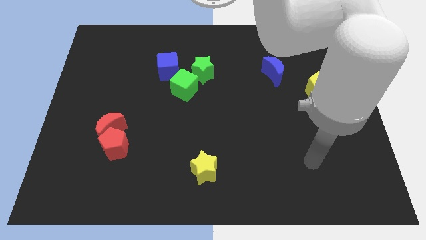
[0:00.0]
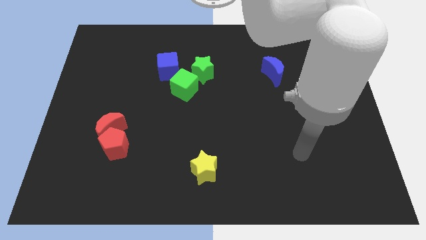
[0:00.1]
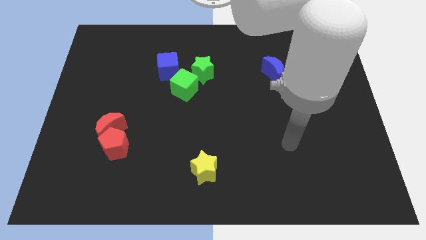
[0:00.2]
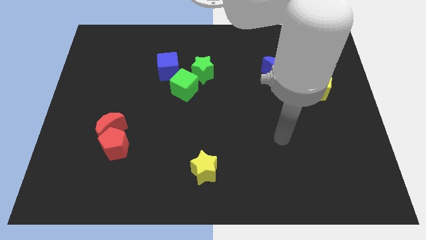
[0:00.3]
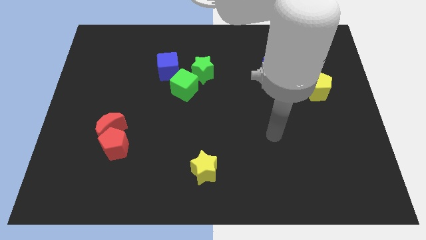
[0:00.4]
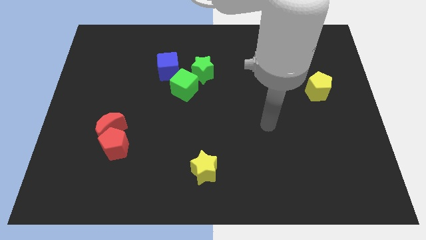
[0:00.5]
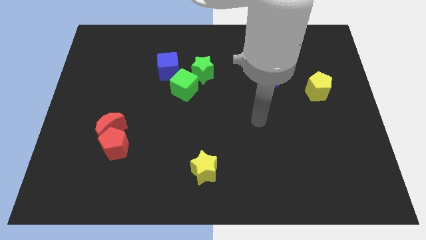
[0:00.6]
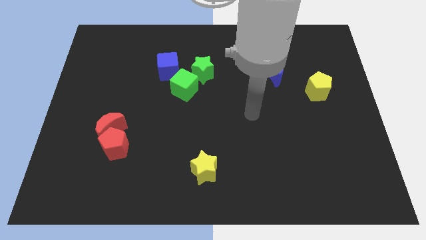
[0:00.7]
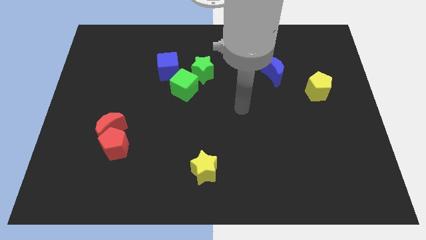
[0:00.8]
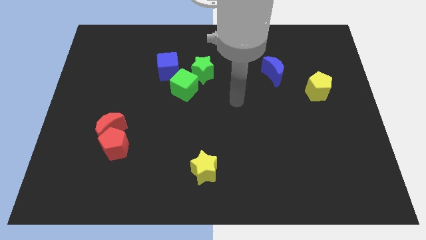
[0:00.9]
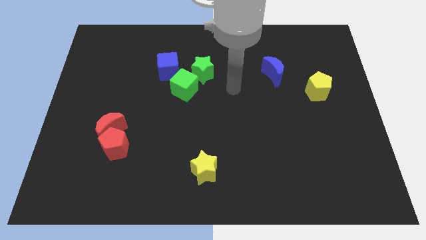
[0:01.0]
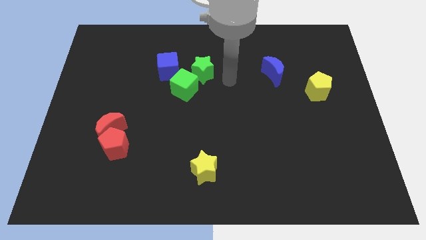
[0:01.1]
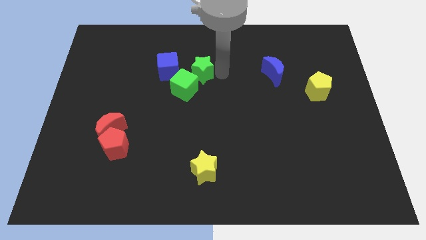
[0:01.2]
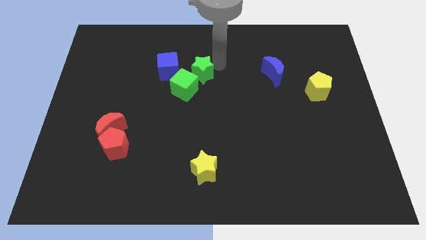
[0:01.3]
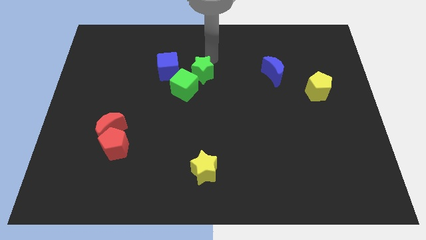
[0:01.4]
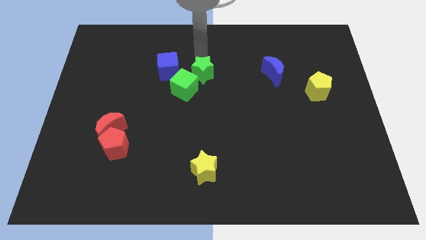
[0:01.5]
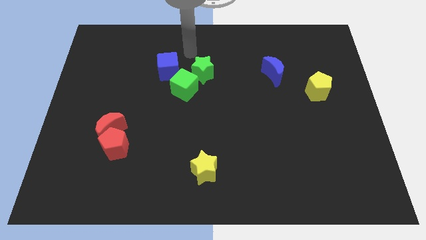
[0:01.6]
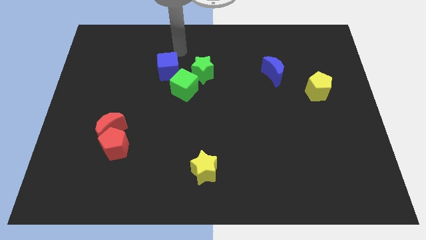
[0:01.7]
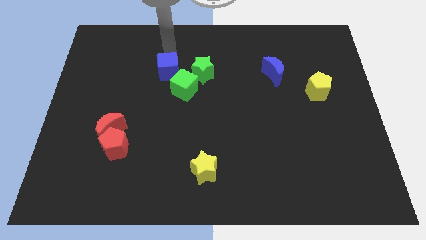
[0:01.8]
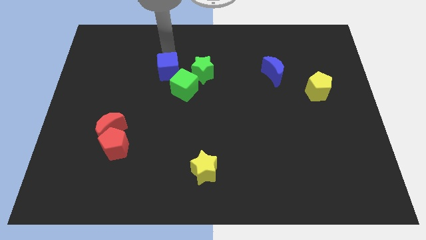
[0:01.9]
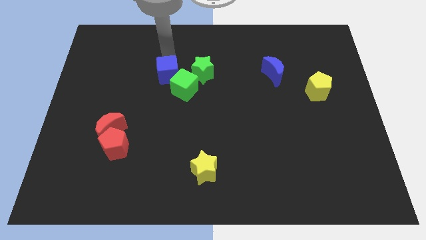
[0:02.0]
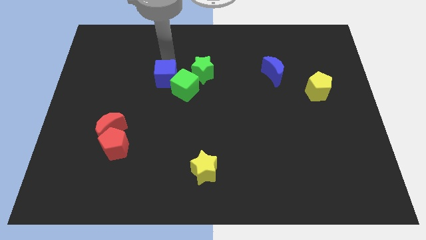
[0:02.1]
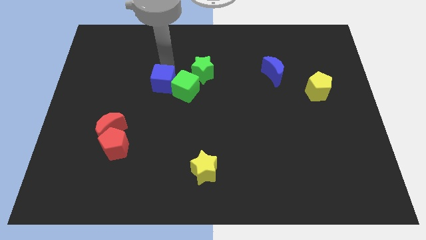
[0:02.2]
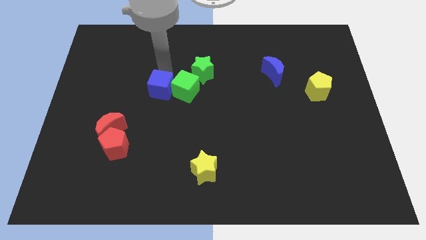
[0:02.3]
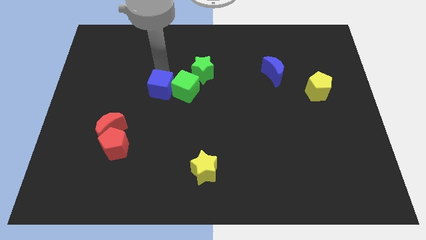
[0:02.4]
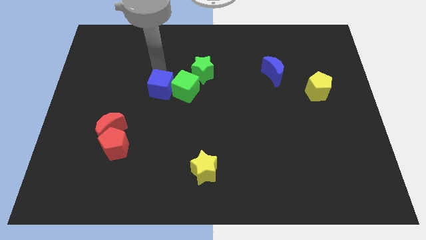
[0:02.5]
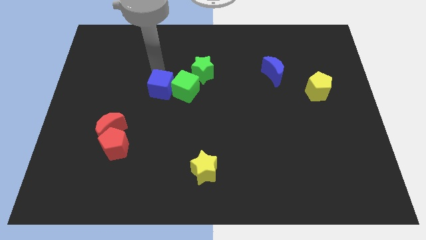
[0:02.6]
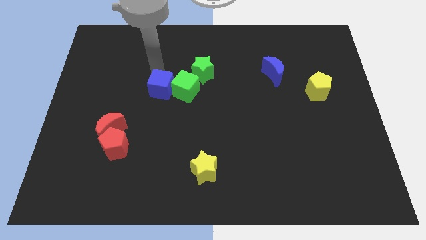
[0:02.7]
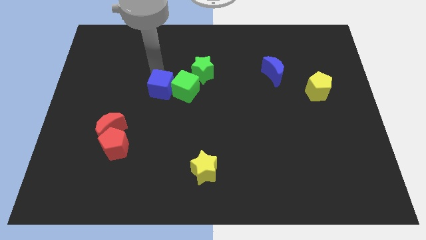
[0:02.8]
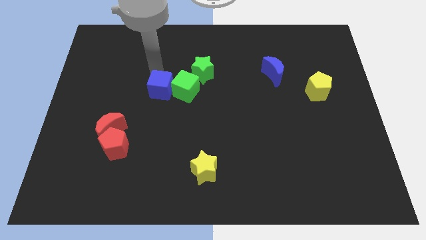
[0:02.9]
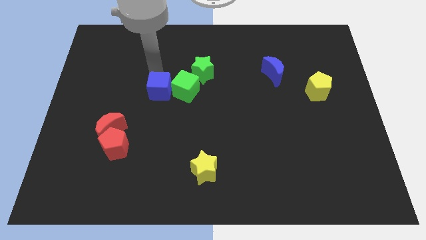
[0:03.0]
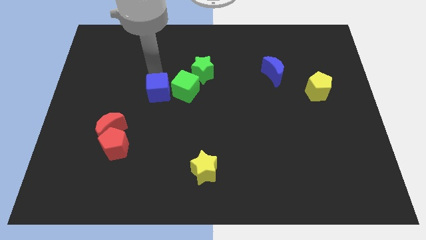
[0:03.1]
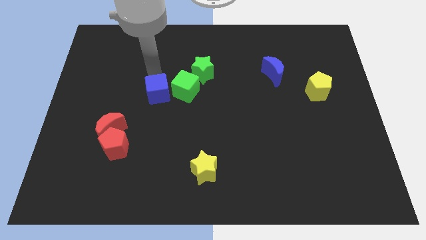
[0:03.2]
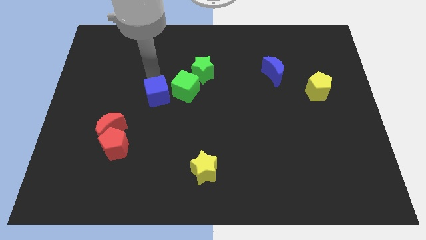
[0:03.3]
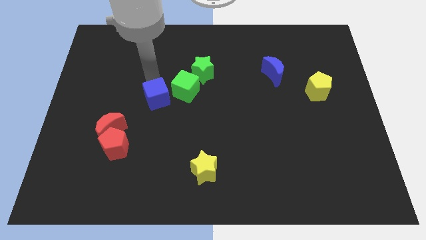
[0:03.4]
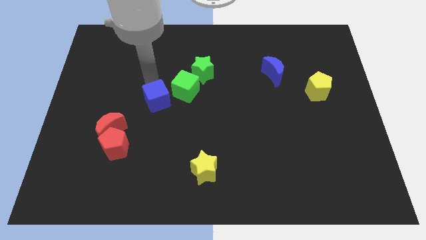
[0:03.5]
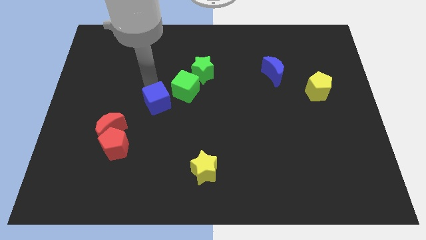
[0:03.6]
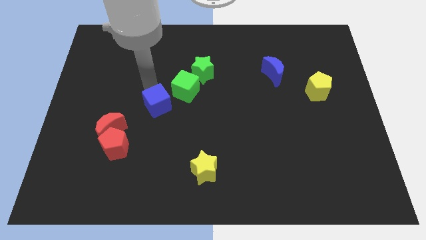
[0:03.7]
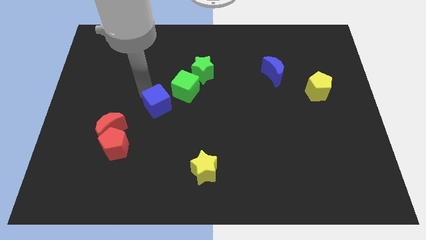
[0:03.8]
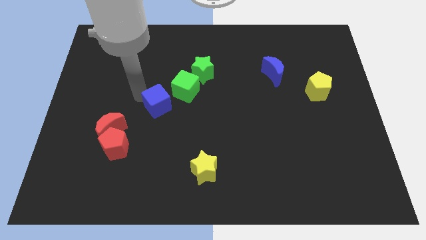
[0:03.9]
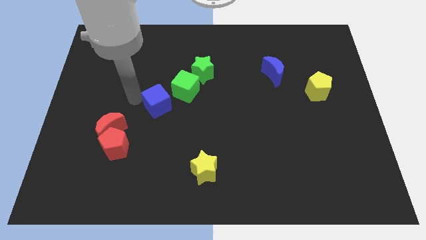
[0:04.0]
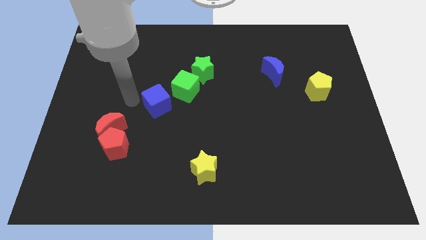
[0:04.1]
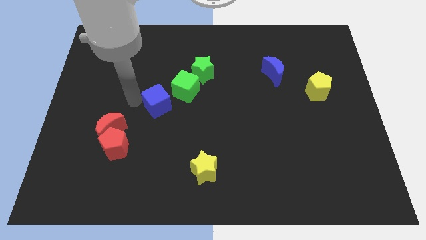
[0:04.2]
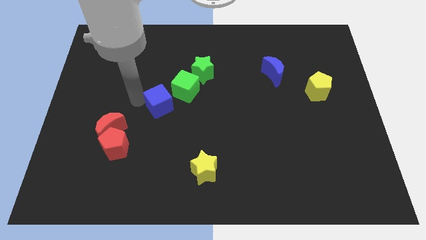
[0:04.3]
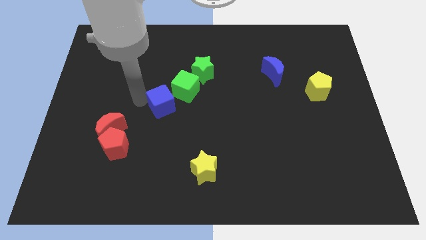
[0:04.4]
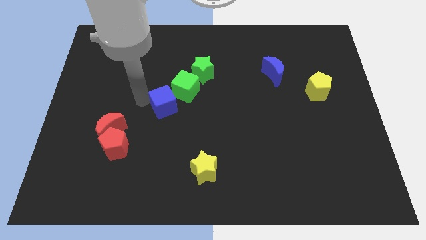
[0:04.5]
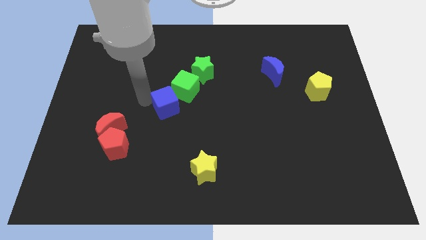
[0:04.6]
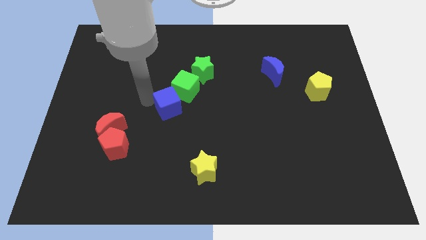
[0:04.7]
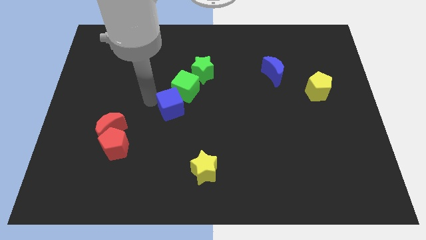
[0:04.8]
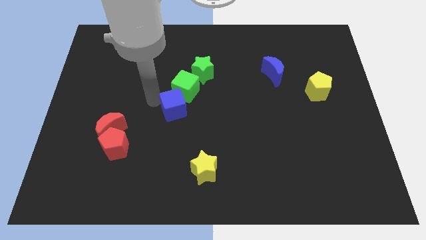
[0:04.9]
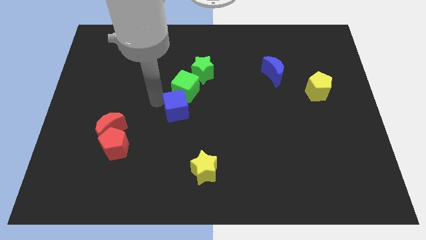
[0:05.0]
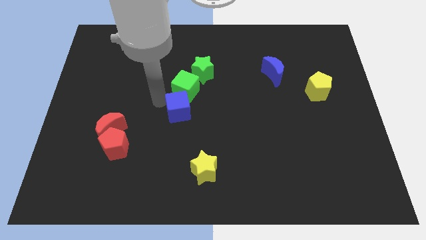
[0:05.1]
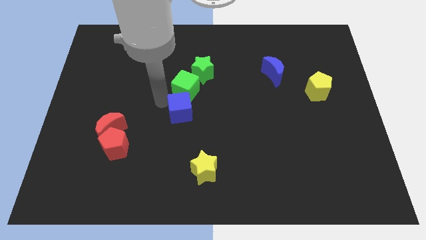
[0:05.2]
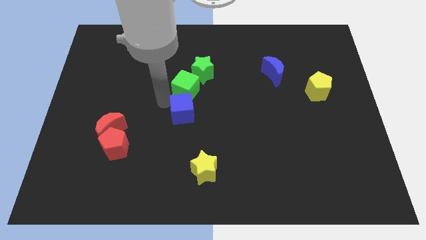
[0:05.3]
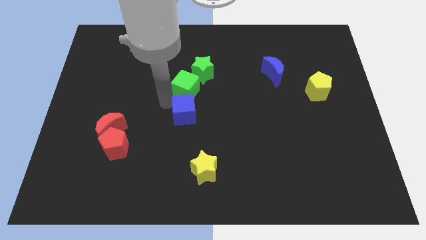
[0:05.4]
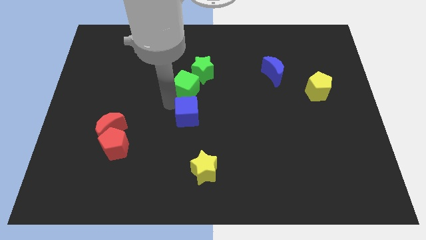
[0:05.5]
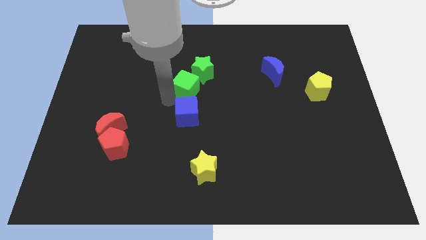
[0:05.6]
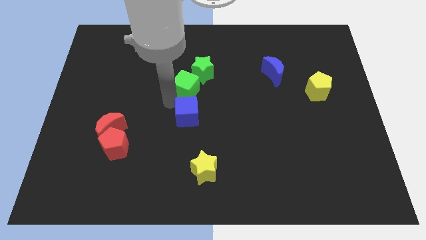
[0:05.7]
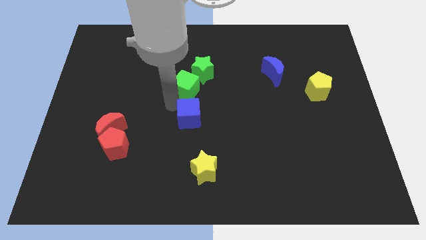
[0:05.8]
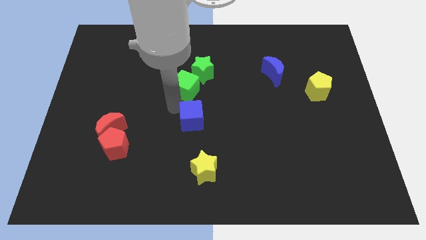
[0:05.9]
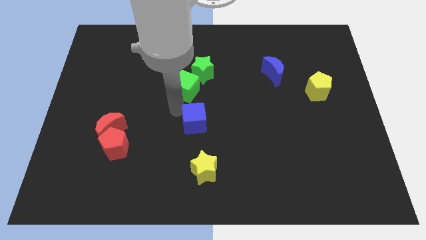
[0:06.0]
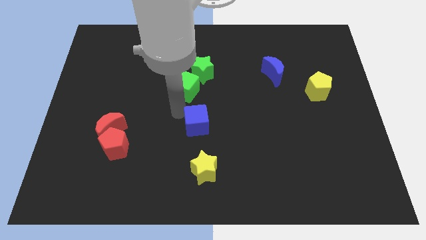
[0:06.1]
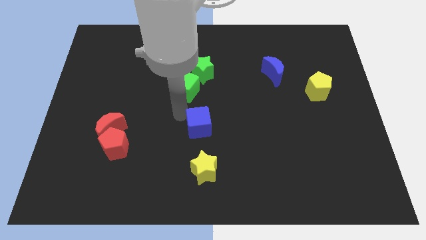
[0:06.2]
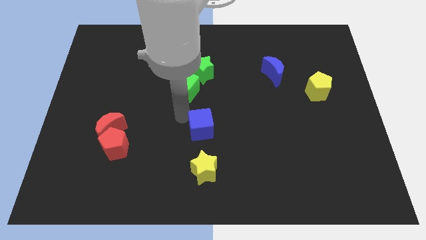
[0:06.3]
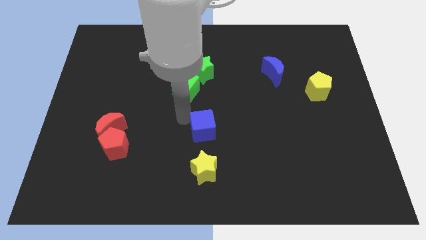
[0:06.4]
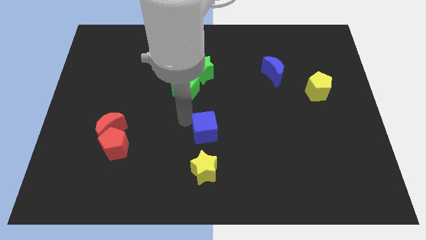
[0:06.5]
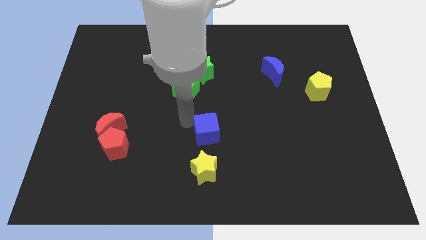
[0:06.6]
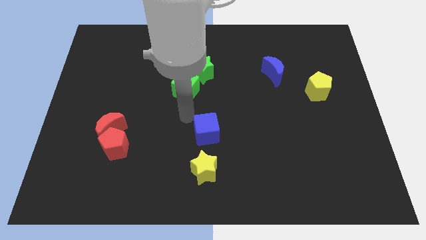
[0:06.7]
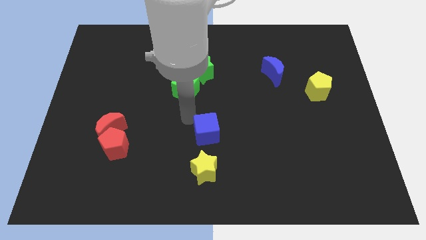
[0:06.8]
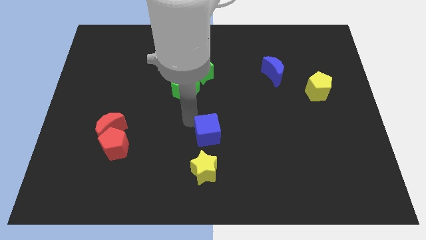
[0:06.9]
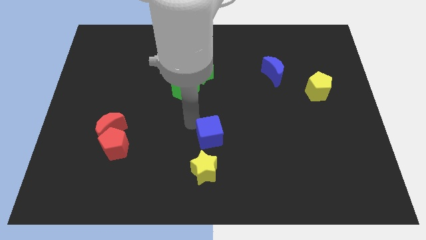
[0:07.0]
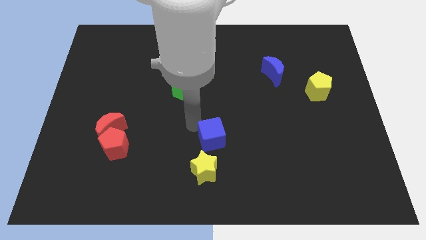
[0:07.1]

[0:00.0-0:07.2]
slide the blue cube diagonally up and to the right of the yellow star

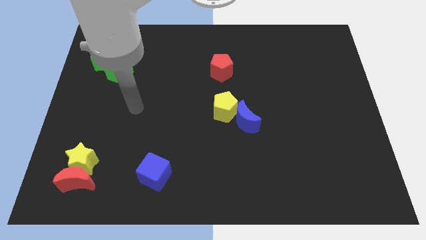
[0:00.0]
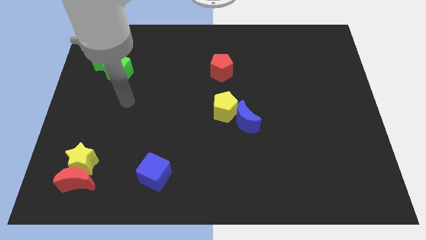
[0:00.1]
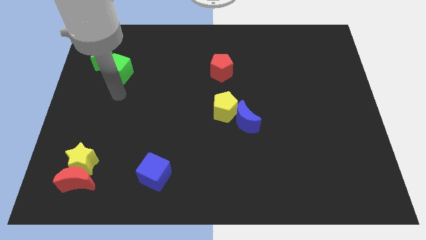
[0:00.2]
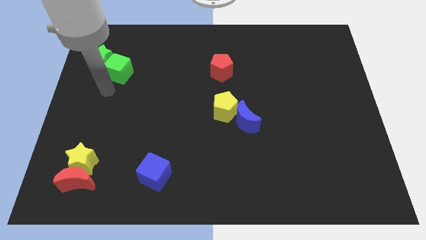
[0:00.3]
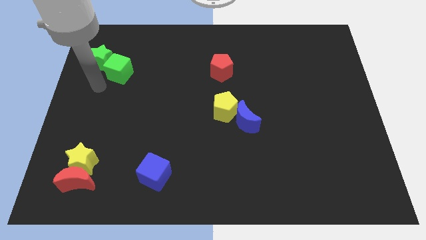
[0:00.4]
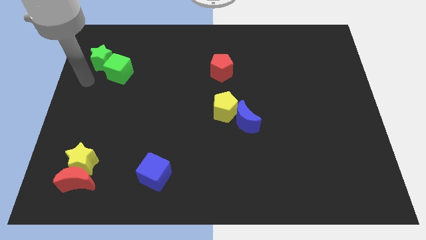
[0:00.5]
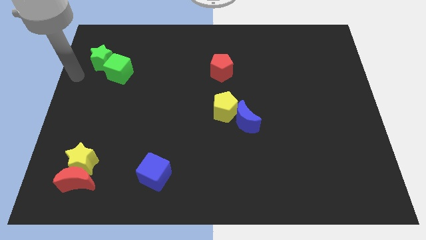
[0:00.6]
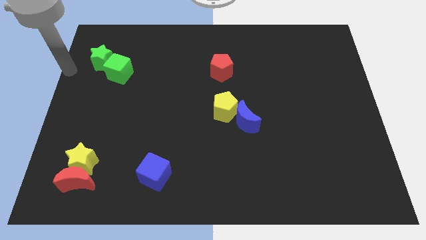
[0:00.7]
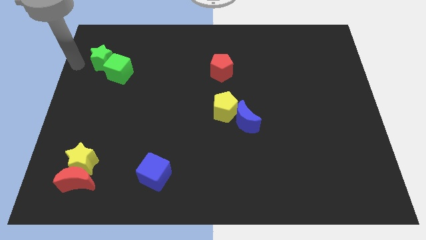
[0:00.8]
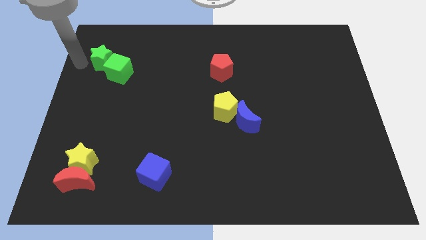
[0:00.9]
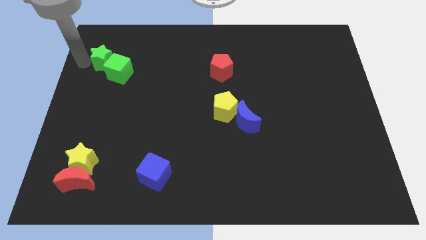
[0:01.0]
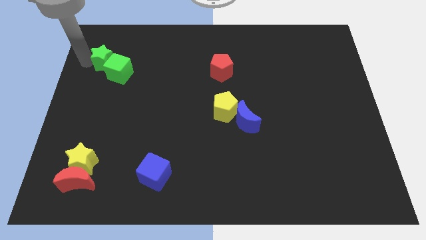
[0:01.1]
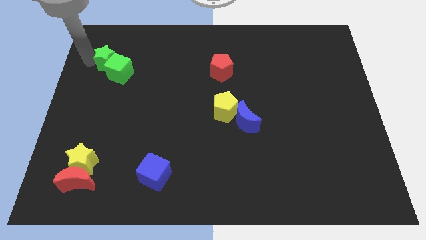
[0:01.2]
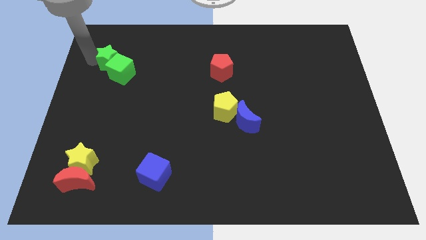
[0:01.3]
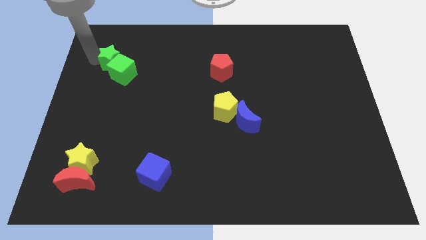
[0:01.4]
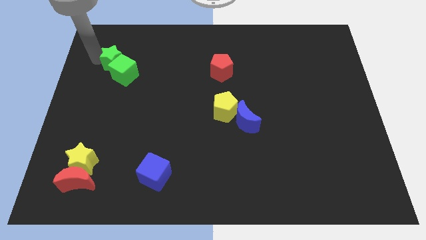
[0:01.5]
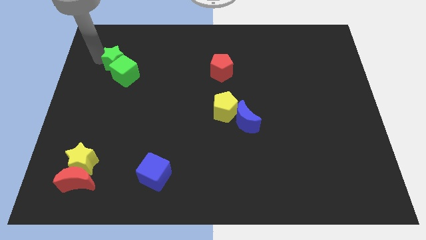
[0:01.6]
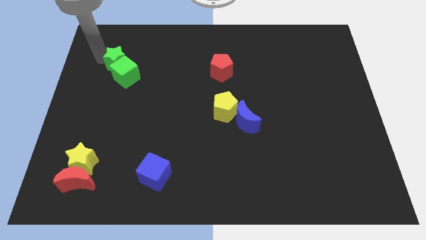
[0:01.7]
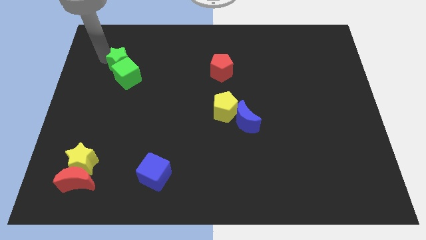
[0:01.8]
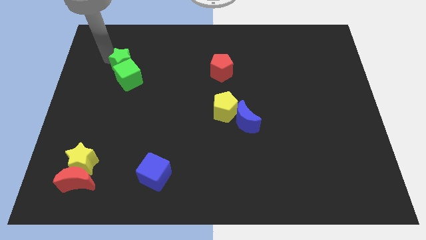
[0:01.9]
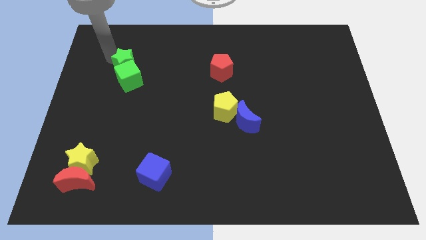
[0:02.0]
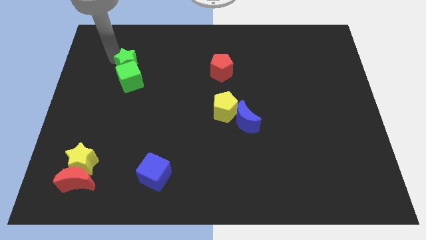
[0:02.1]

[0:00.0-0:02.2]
slide the green star to the top right side of the green cube
